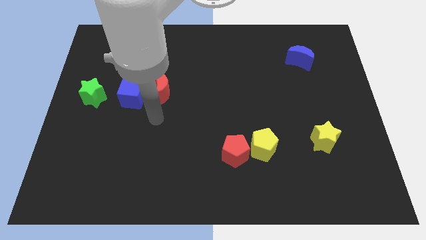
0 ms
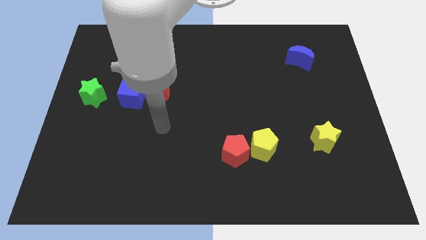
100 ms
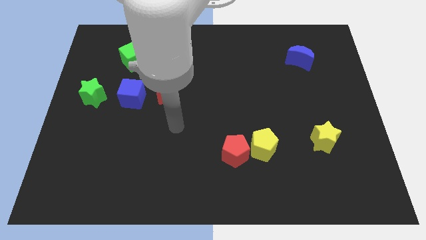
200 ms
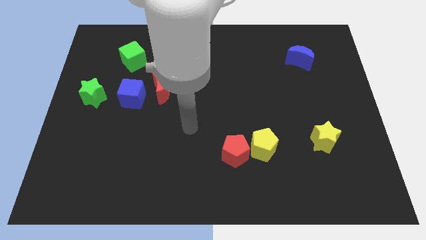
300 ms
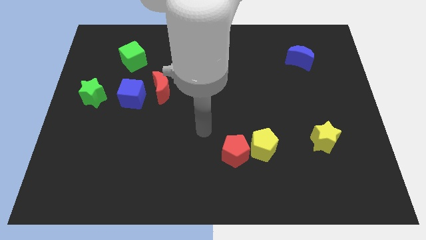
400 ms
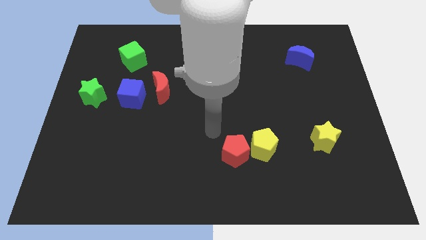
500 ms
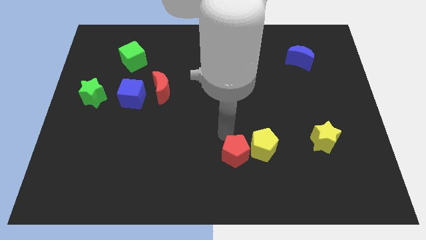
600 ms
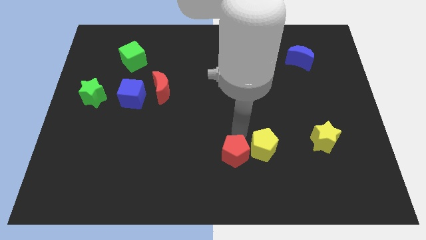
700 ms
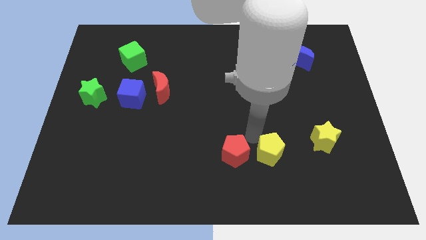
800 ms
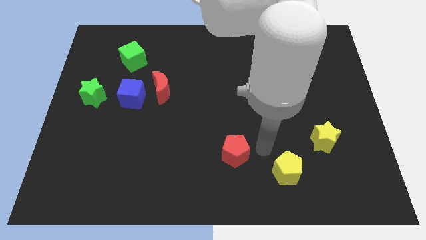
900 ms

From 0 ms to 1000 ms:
move the red pentagon away from the yellow pentagon

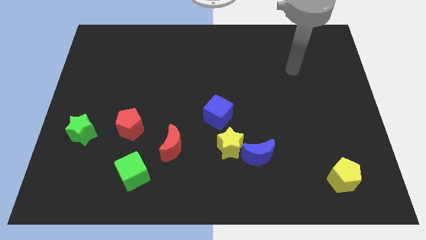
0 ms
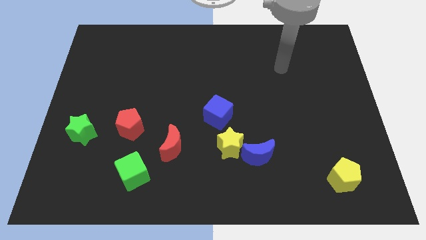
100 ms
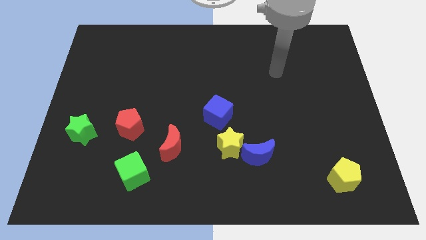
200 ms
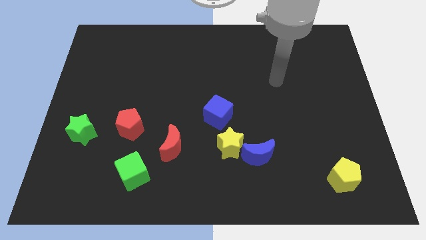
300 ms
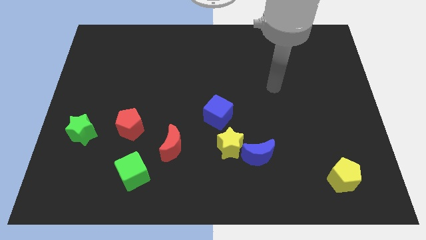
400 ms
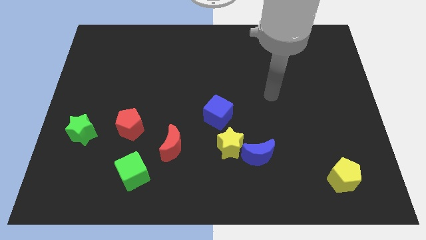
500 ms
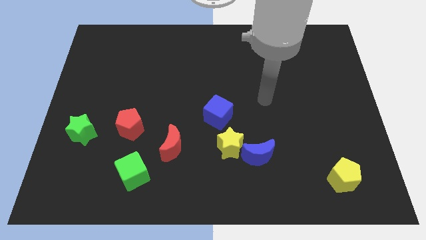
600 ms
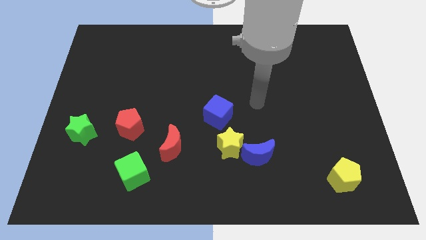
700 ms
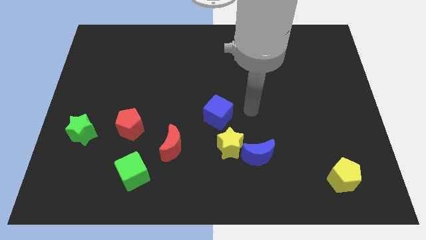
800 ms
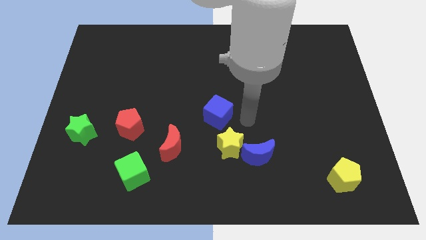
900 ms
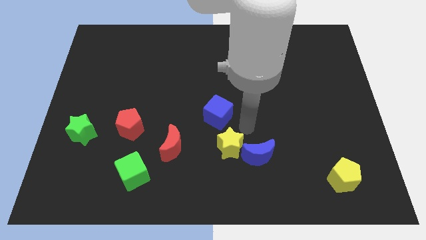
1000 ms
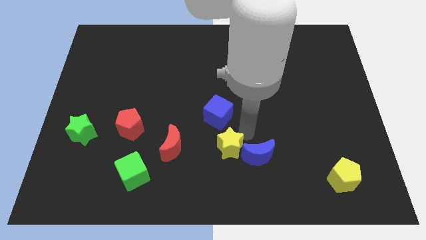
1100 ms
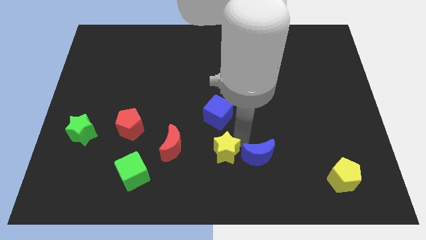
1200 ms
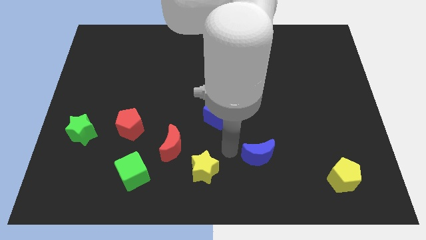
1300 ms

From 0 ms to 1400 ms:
separate the blue moon from the yellow star

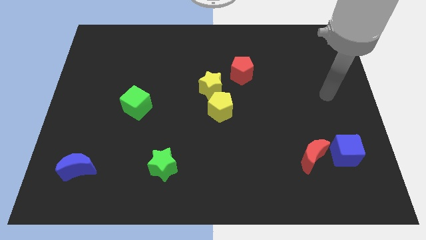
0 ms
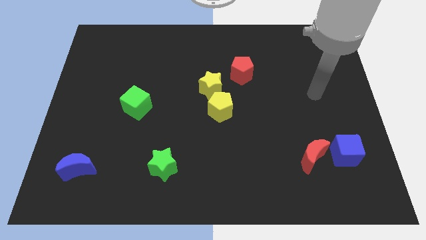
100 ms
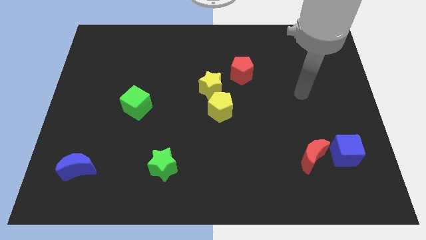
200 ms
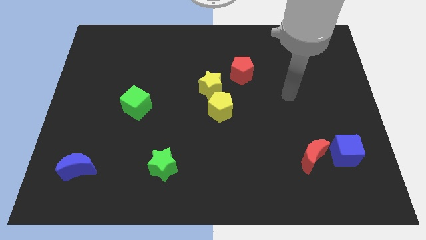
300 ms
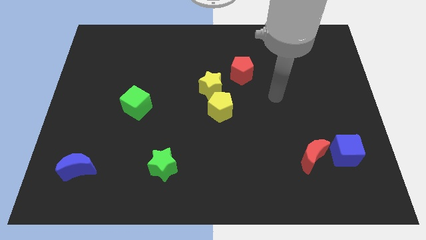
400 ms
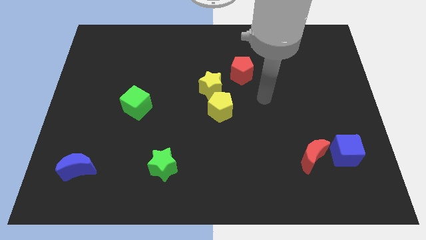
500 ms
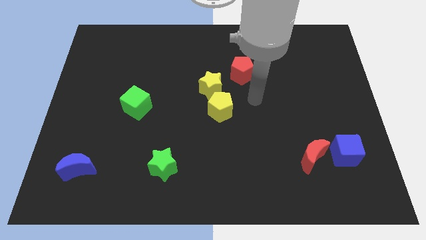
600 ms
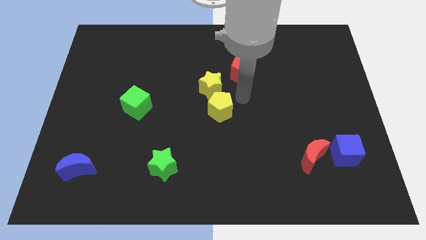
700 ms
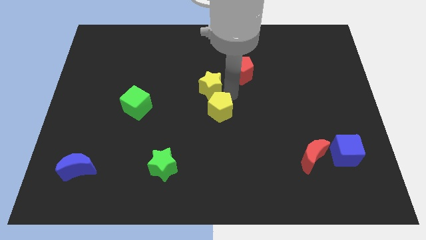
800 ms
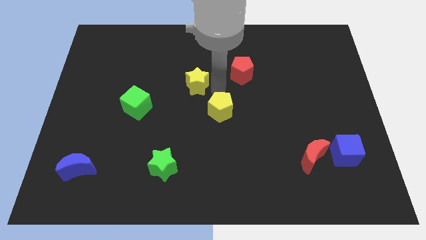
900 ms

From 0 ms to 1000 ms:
separate the yellow pentagon from the yellow star

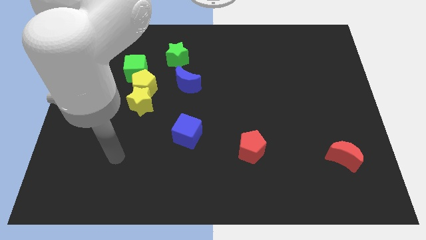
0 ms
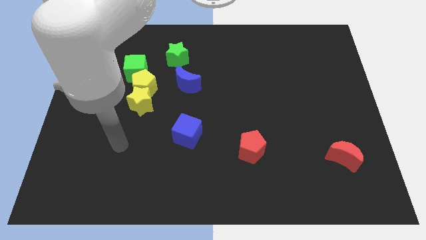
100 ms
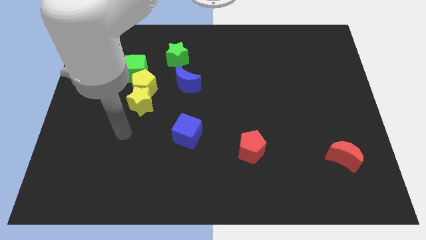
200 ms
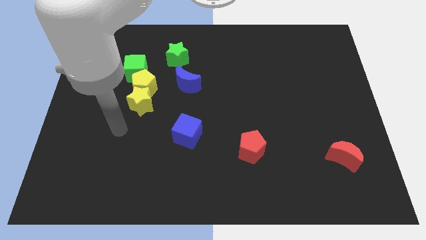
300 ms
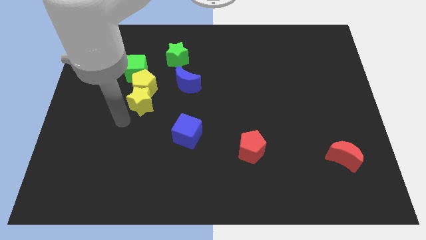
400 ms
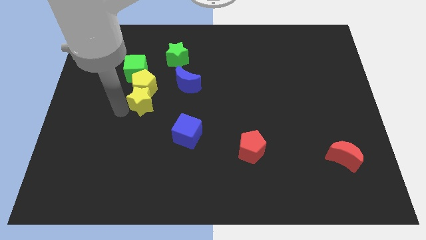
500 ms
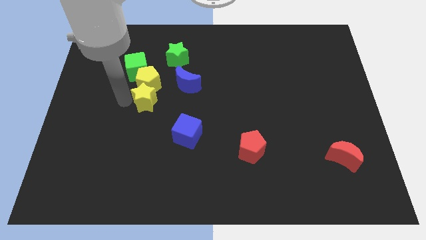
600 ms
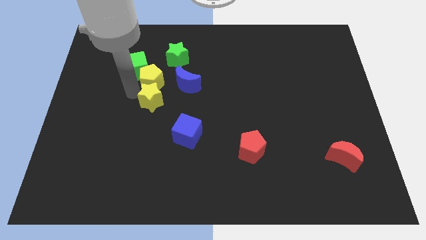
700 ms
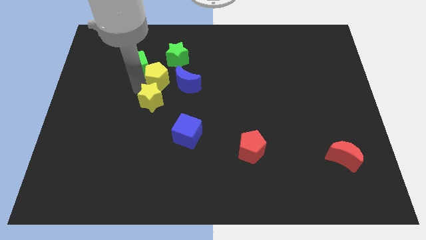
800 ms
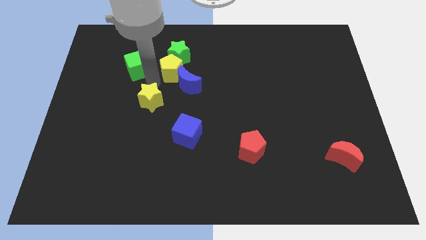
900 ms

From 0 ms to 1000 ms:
move the yellow star away from the yellow pentagon

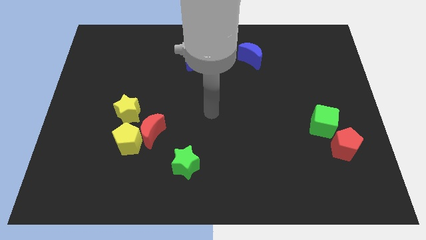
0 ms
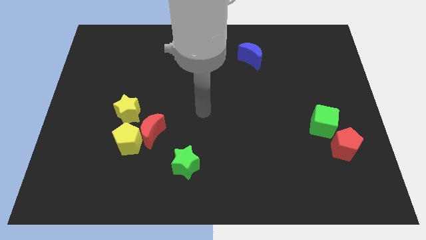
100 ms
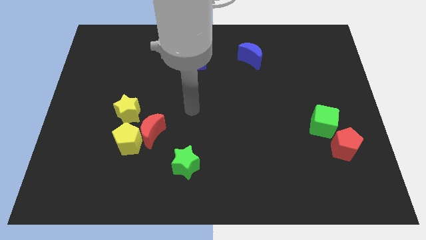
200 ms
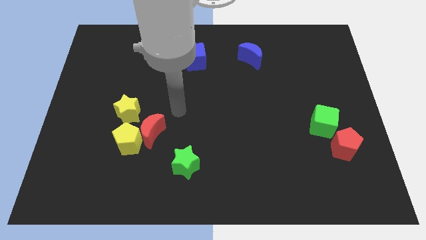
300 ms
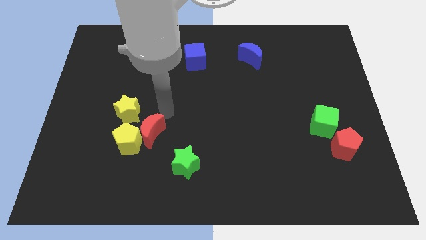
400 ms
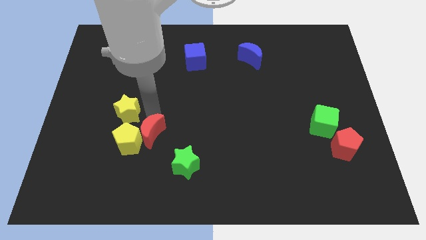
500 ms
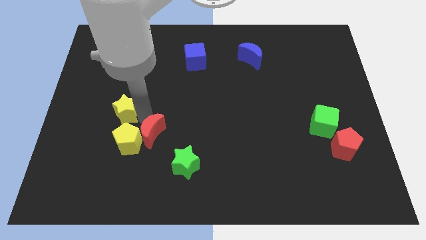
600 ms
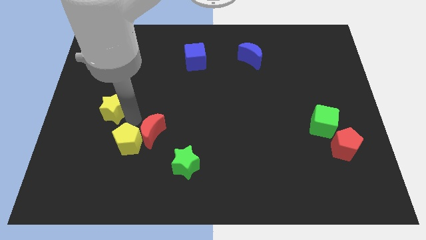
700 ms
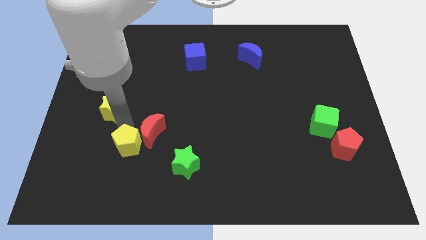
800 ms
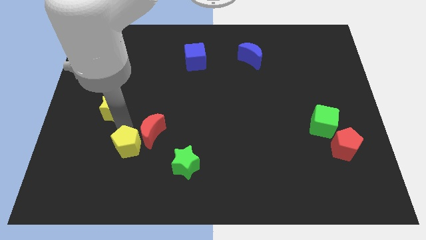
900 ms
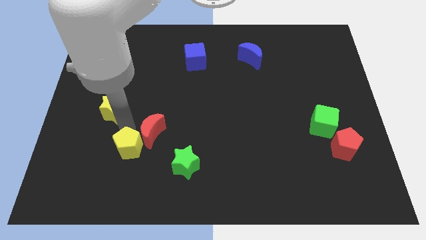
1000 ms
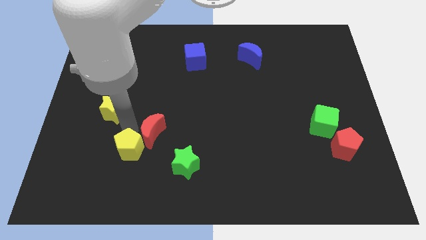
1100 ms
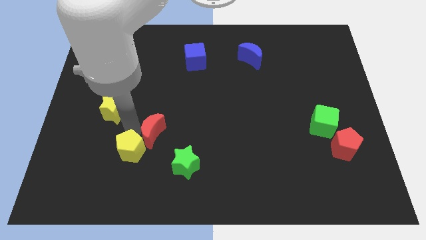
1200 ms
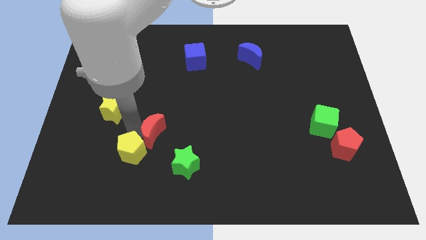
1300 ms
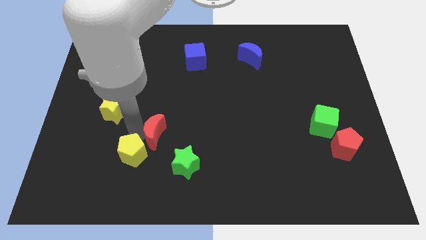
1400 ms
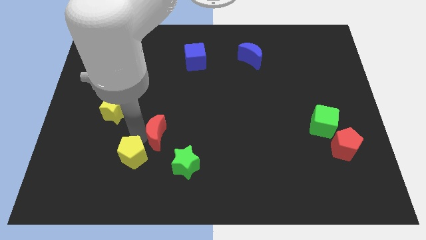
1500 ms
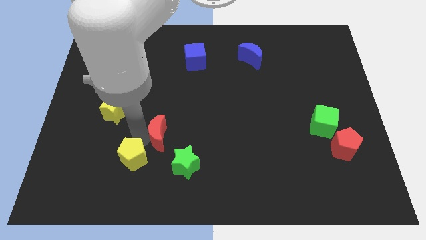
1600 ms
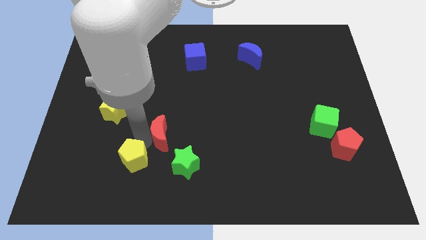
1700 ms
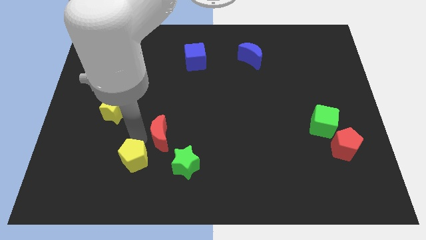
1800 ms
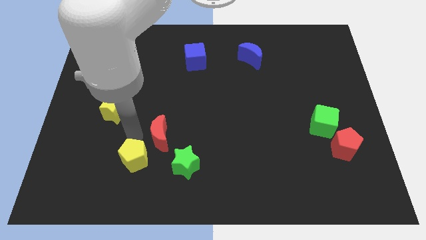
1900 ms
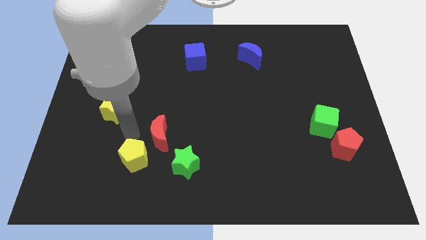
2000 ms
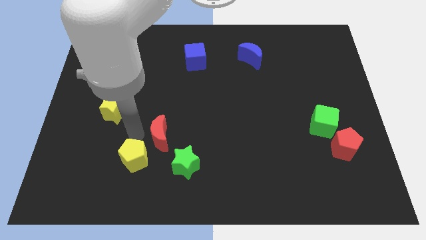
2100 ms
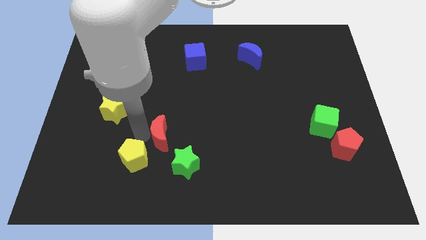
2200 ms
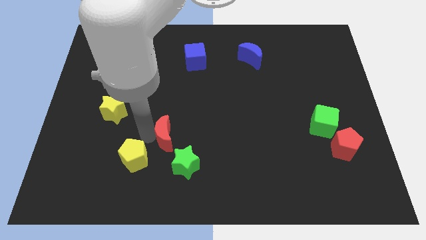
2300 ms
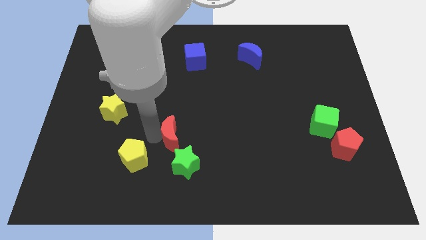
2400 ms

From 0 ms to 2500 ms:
move the red moon away from the yellow pentagon and yellow star

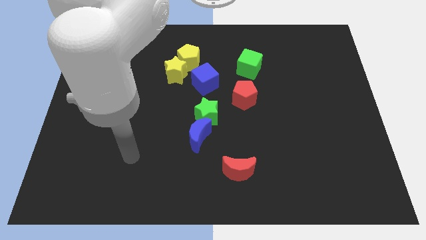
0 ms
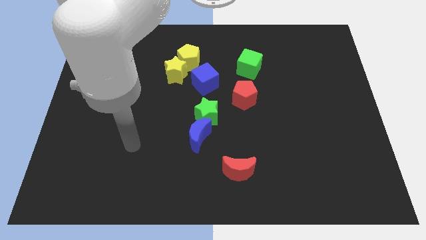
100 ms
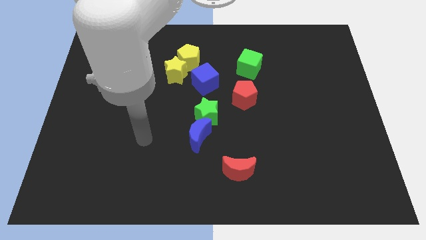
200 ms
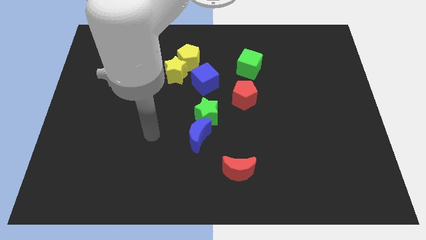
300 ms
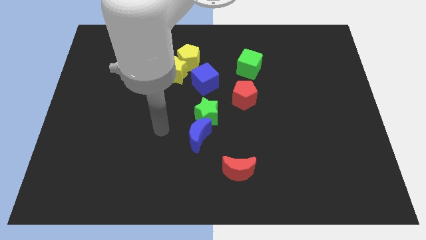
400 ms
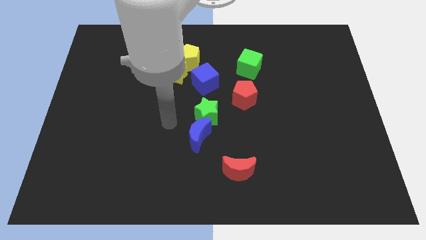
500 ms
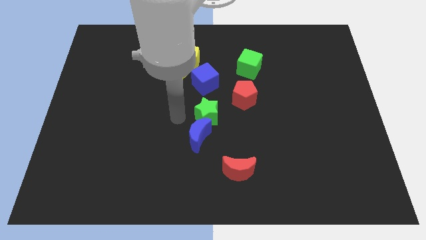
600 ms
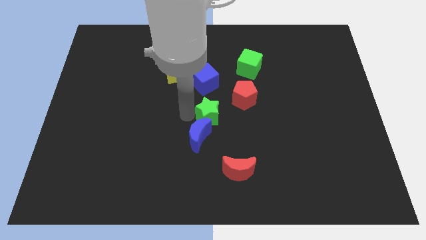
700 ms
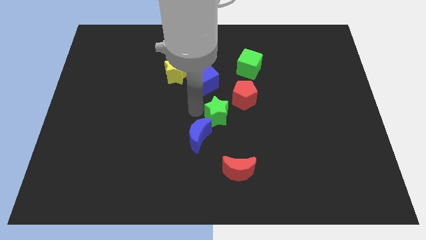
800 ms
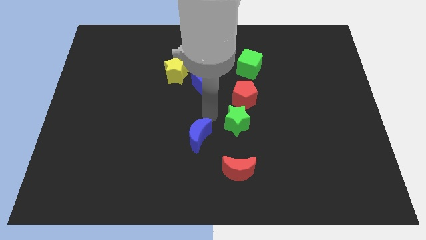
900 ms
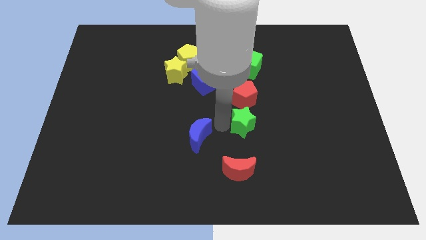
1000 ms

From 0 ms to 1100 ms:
separate the blue moon from the green star

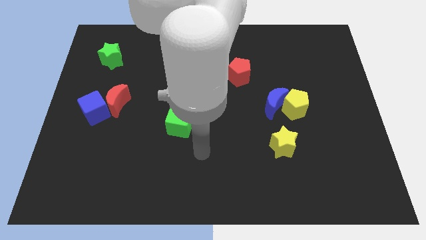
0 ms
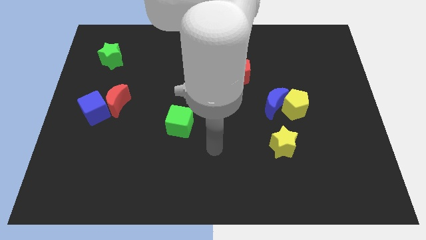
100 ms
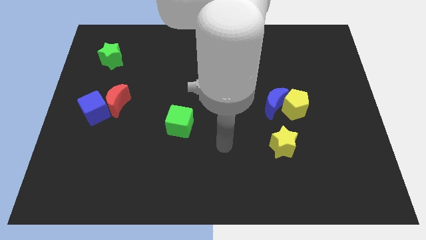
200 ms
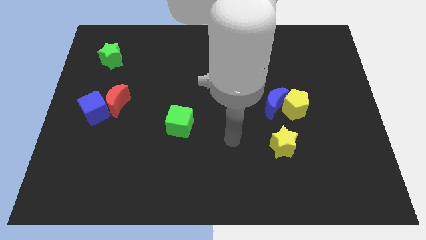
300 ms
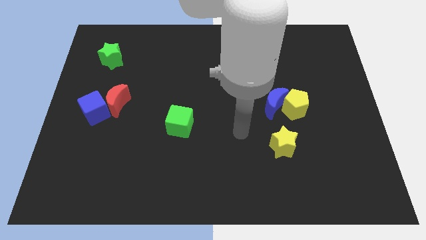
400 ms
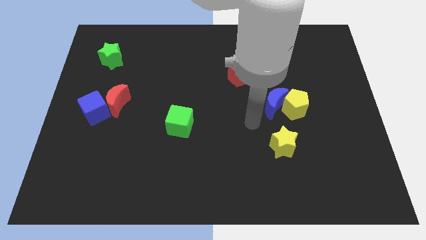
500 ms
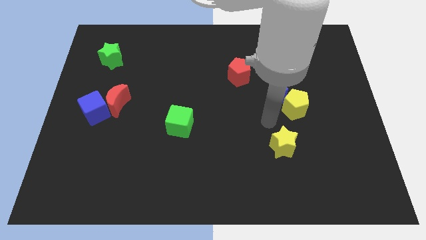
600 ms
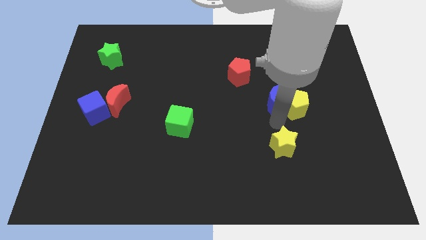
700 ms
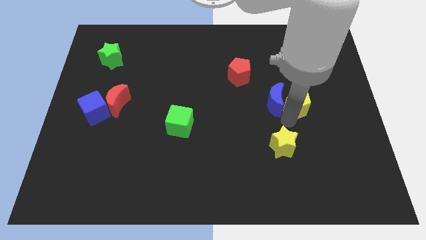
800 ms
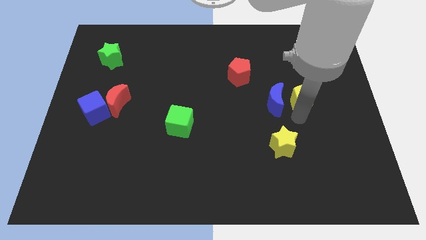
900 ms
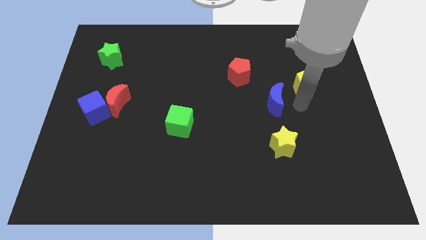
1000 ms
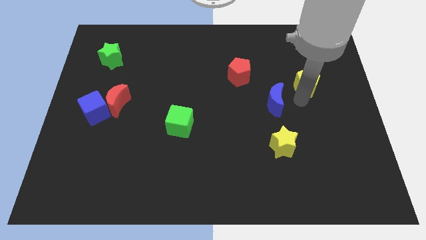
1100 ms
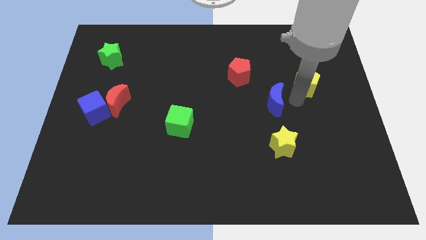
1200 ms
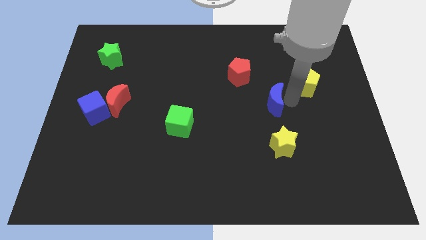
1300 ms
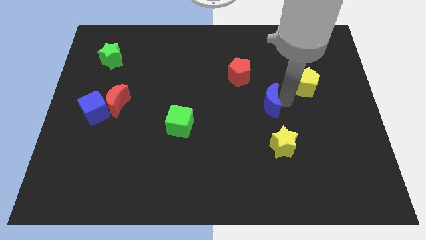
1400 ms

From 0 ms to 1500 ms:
separate the blue moon from the yellow pentagon
